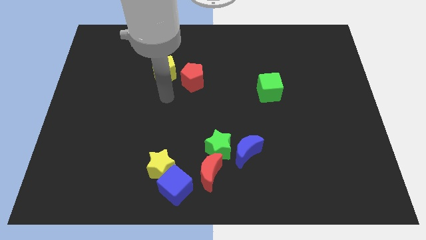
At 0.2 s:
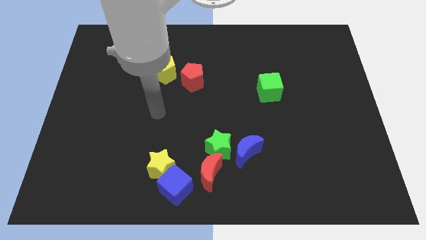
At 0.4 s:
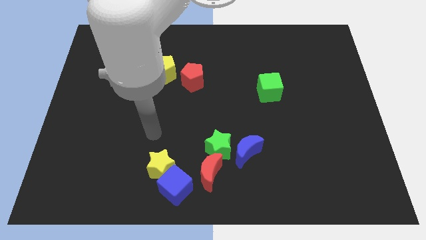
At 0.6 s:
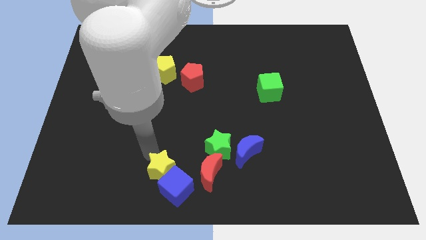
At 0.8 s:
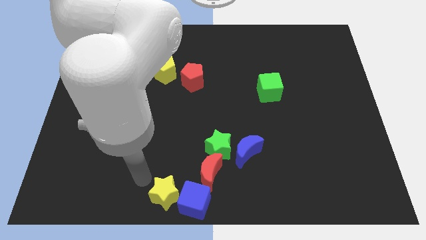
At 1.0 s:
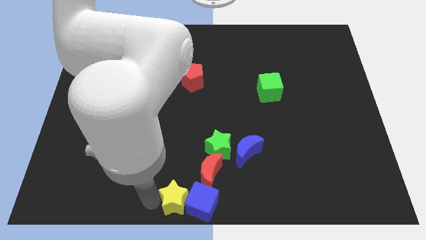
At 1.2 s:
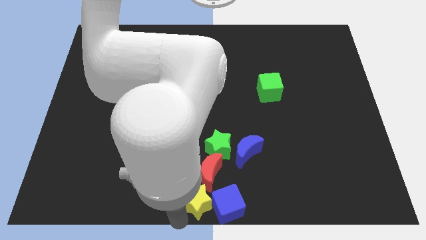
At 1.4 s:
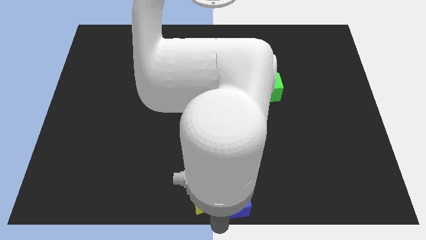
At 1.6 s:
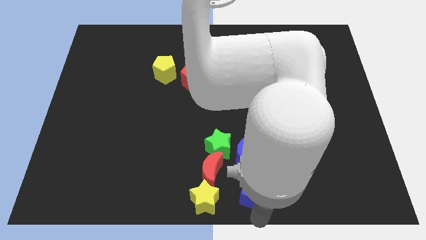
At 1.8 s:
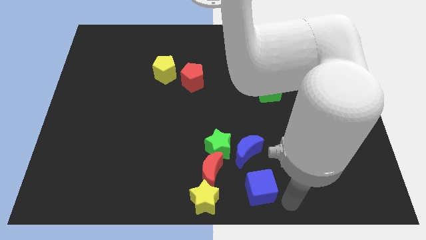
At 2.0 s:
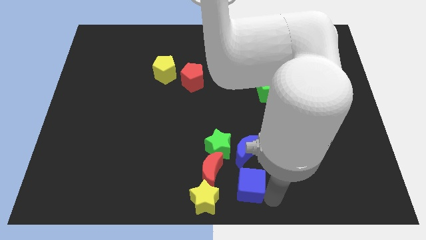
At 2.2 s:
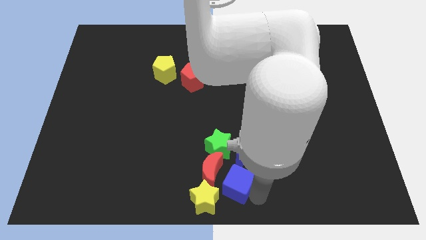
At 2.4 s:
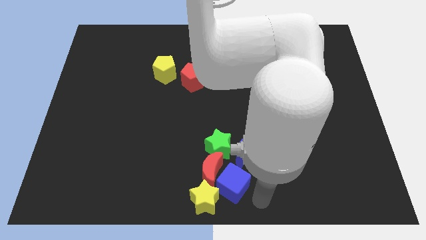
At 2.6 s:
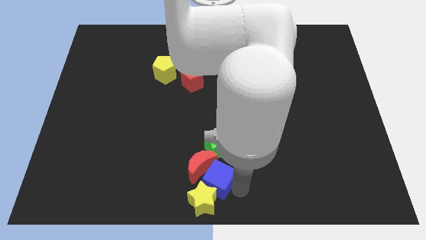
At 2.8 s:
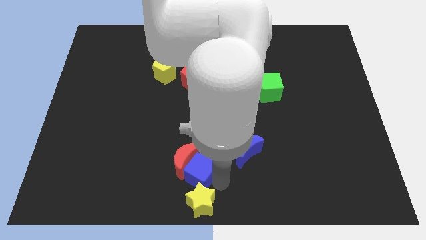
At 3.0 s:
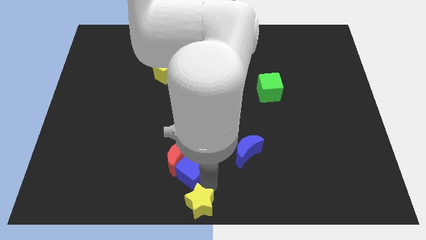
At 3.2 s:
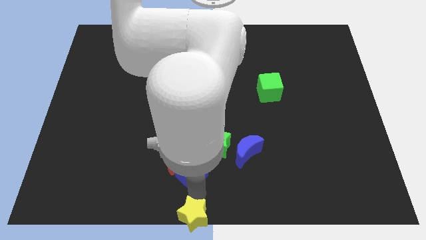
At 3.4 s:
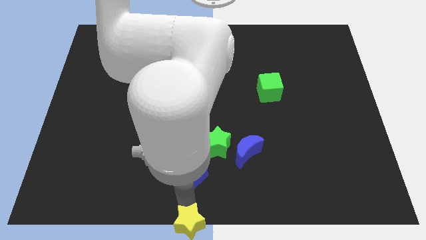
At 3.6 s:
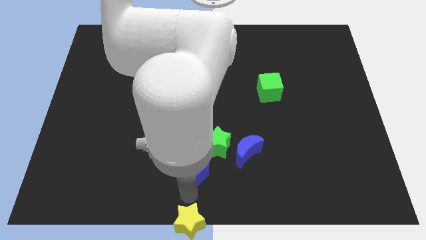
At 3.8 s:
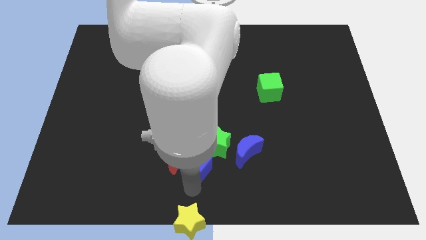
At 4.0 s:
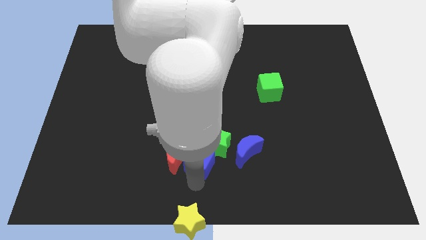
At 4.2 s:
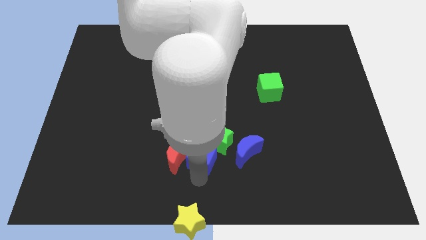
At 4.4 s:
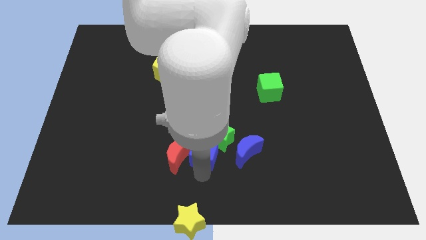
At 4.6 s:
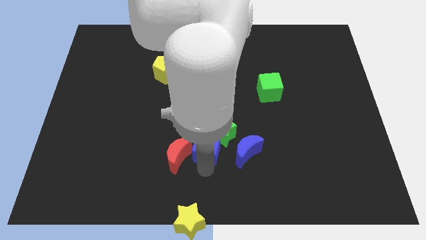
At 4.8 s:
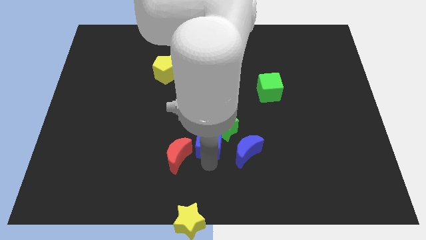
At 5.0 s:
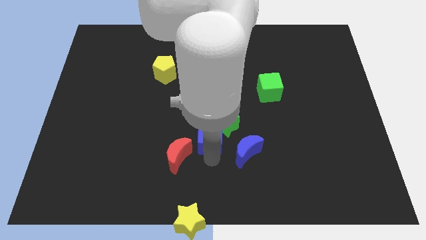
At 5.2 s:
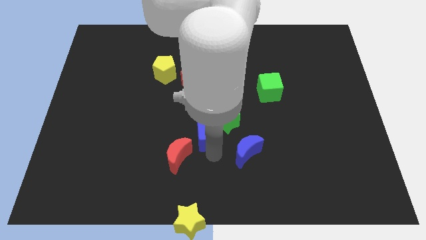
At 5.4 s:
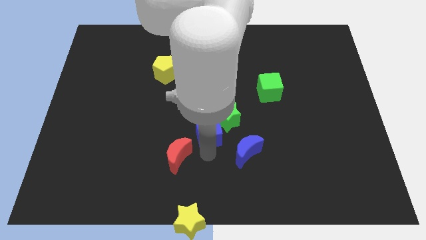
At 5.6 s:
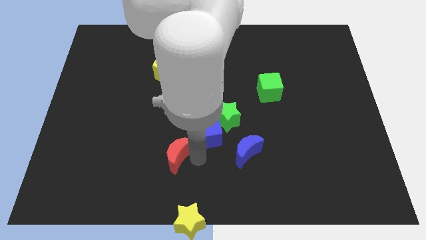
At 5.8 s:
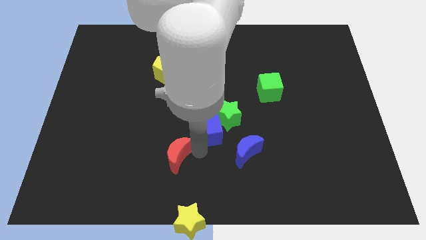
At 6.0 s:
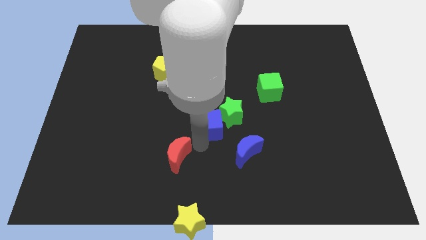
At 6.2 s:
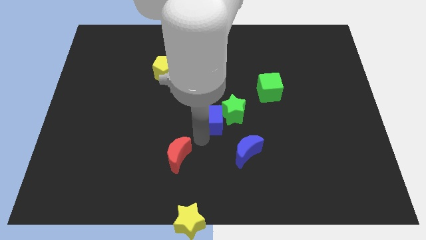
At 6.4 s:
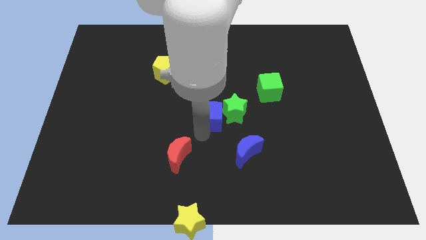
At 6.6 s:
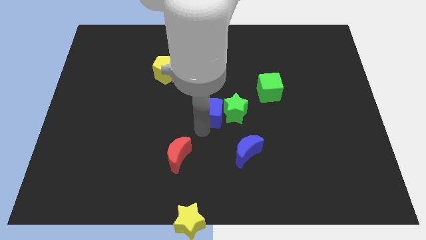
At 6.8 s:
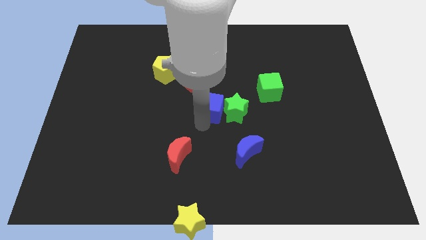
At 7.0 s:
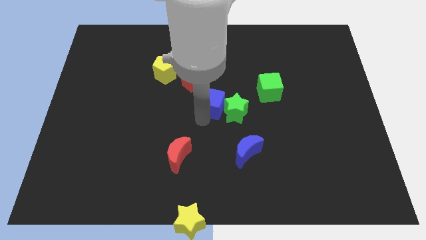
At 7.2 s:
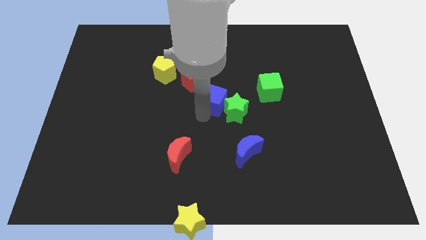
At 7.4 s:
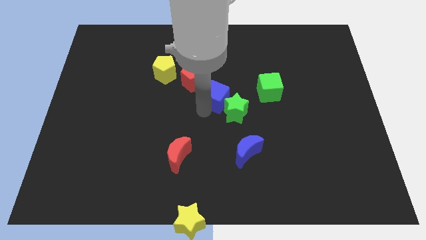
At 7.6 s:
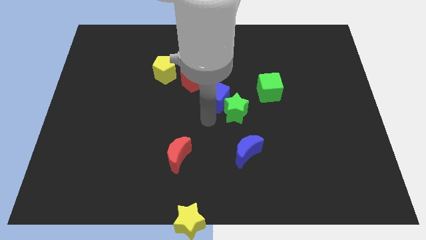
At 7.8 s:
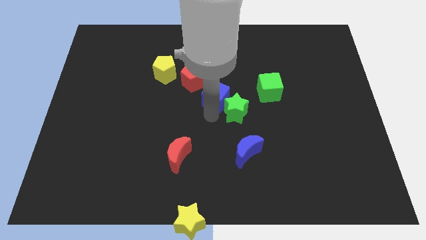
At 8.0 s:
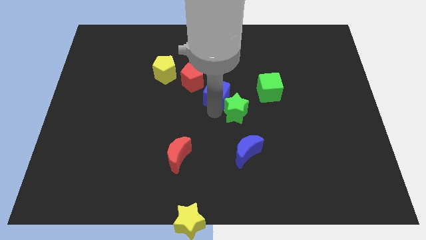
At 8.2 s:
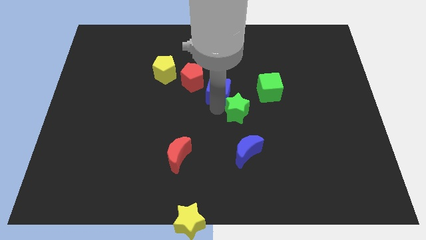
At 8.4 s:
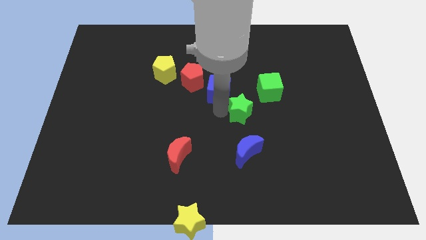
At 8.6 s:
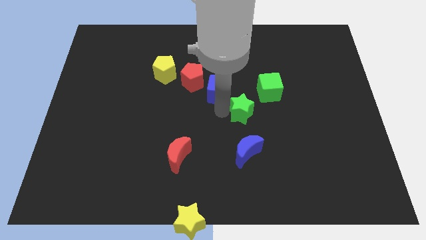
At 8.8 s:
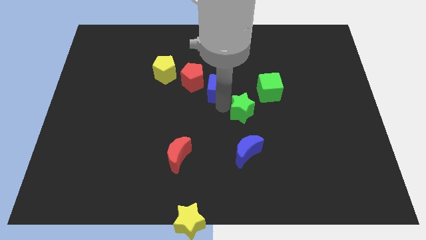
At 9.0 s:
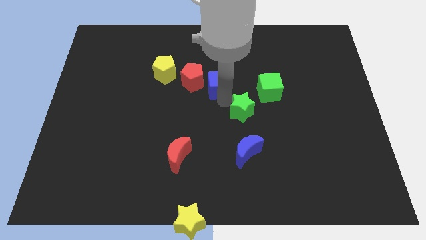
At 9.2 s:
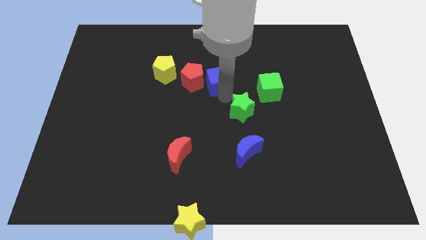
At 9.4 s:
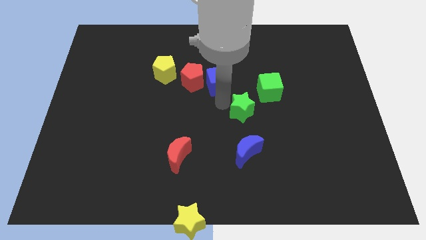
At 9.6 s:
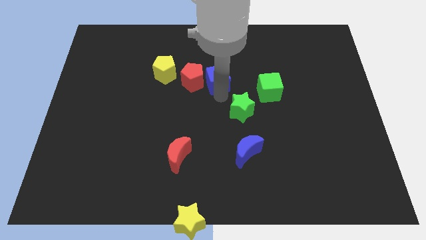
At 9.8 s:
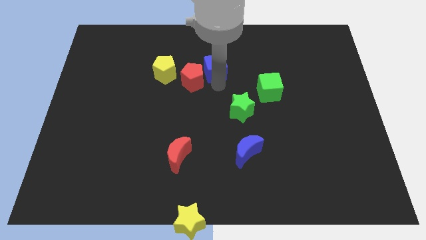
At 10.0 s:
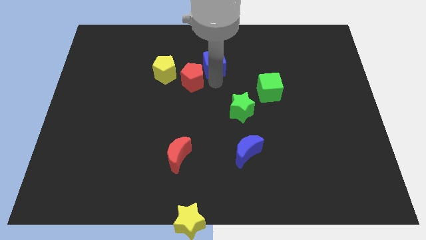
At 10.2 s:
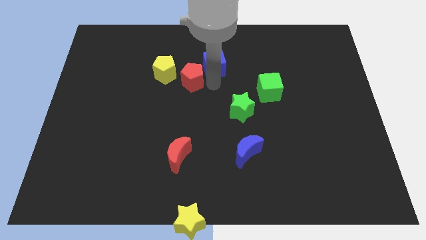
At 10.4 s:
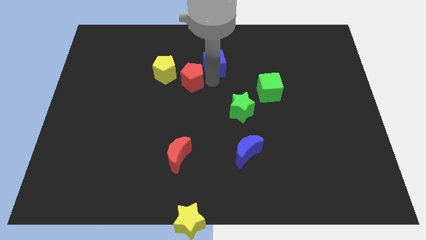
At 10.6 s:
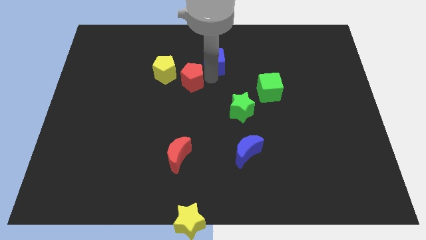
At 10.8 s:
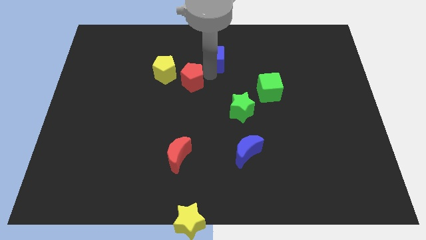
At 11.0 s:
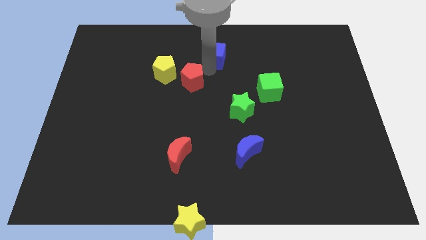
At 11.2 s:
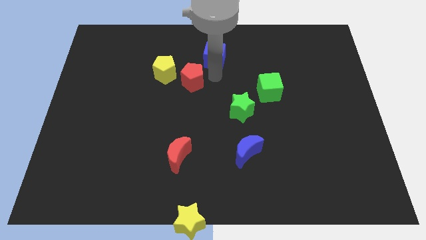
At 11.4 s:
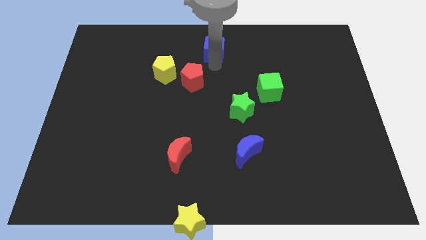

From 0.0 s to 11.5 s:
push the blue cube to the top

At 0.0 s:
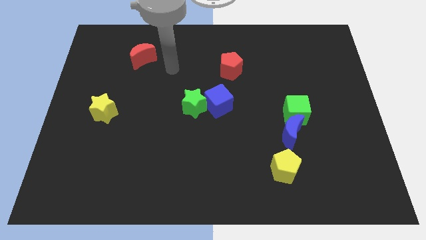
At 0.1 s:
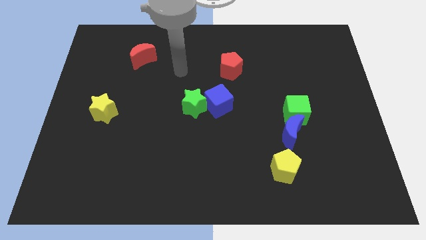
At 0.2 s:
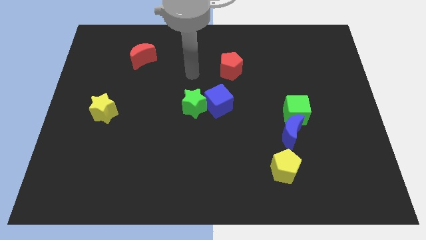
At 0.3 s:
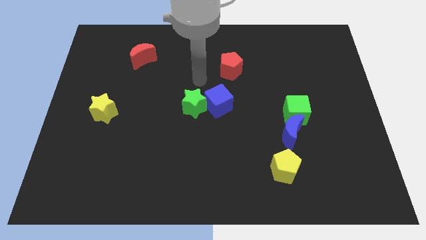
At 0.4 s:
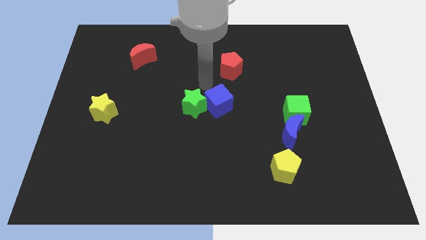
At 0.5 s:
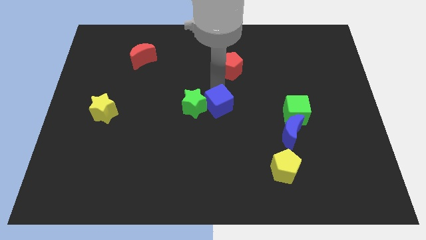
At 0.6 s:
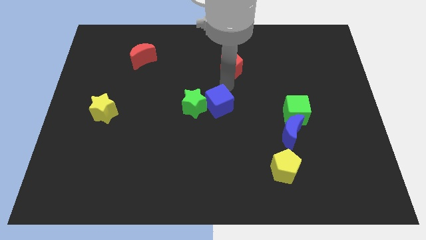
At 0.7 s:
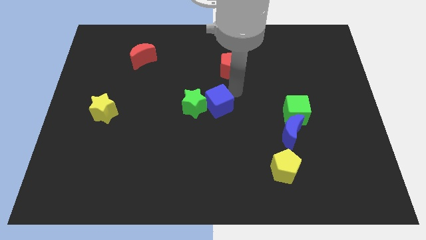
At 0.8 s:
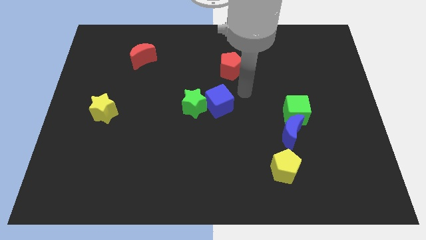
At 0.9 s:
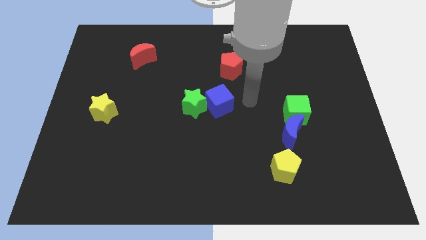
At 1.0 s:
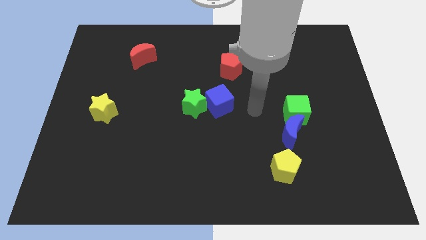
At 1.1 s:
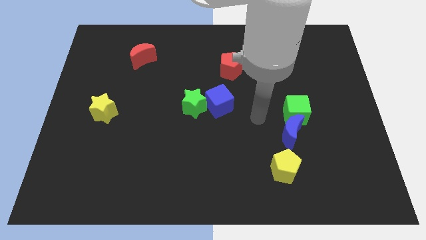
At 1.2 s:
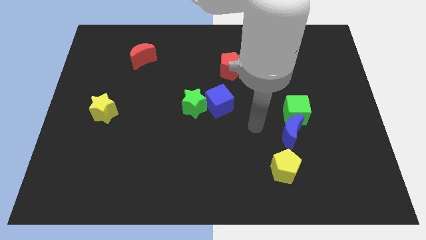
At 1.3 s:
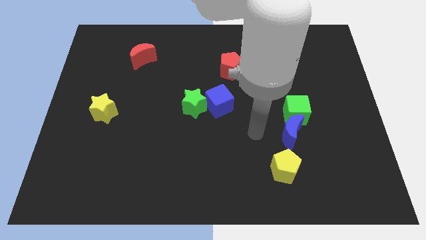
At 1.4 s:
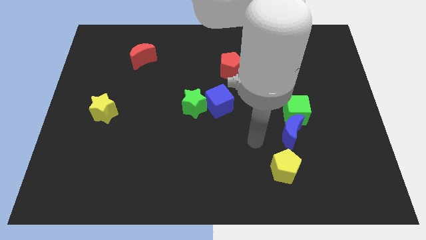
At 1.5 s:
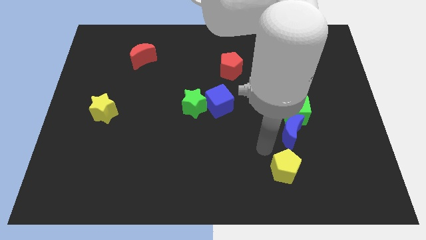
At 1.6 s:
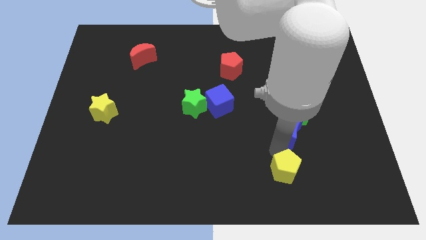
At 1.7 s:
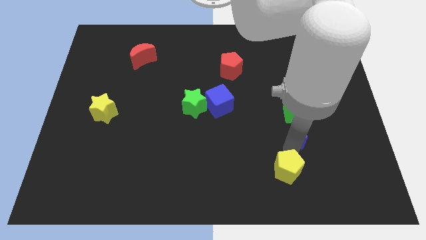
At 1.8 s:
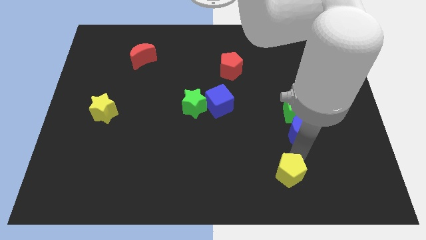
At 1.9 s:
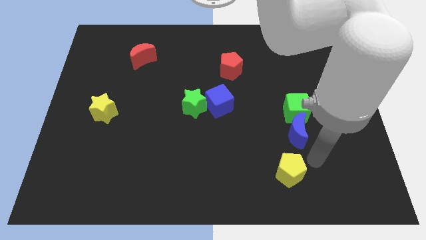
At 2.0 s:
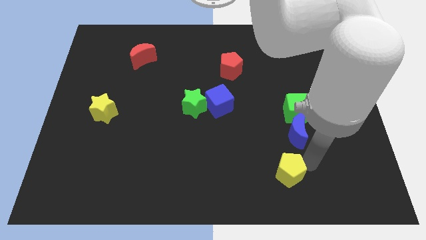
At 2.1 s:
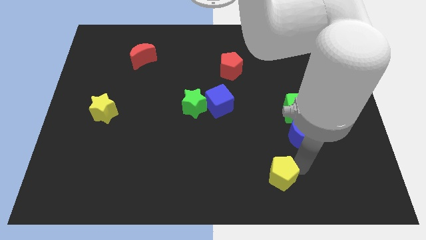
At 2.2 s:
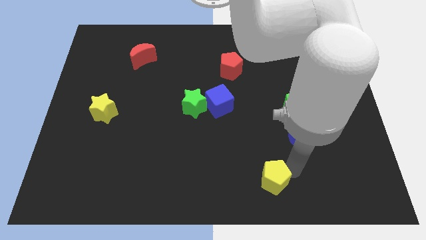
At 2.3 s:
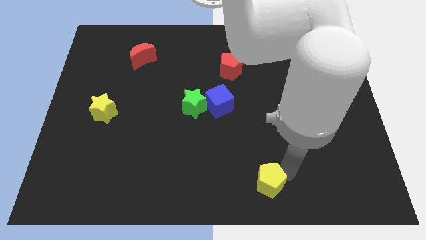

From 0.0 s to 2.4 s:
push the yellow pentagon to the bottom side
